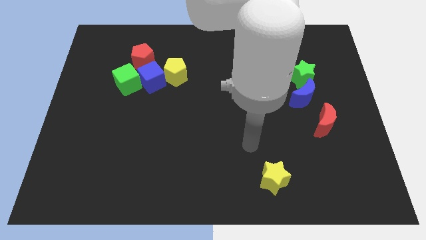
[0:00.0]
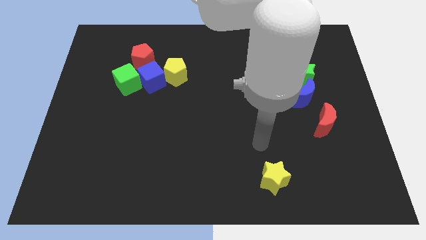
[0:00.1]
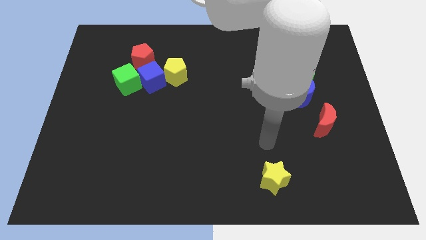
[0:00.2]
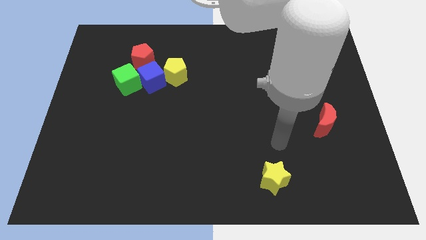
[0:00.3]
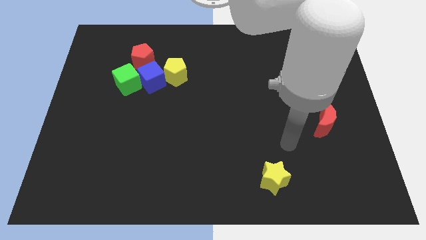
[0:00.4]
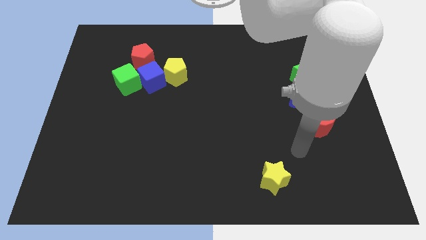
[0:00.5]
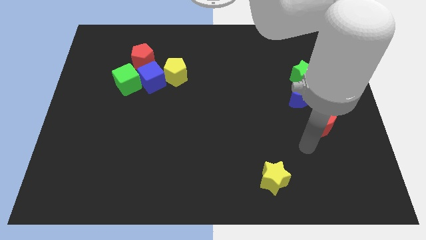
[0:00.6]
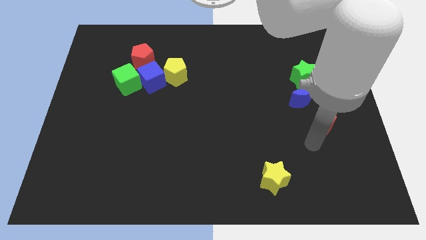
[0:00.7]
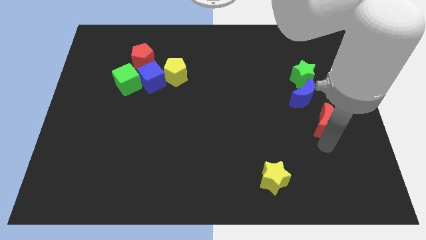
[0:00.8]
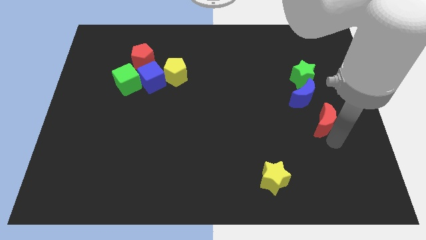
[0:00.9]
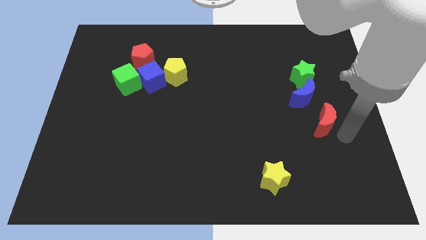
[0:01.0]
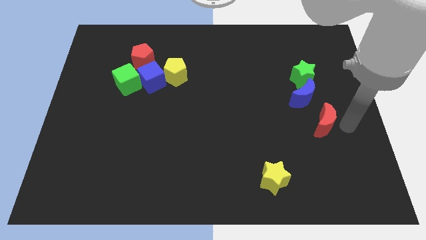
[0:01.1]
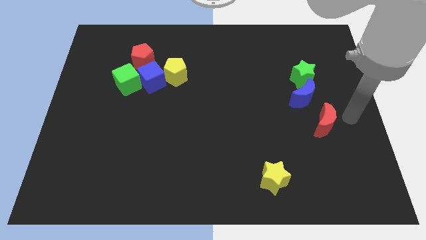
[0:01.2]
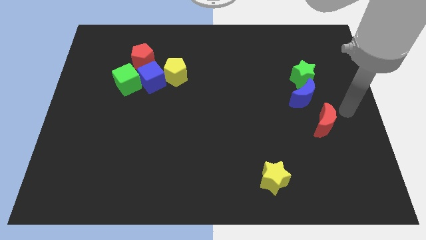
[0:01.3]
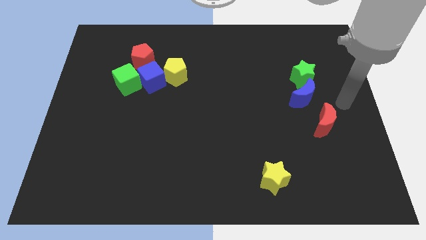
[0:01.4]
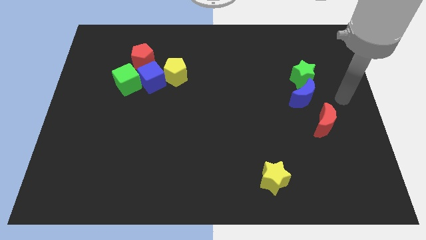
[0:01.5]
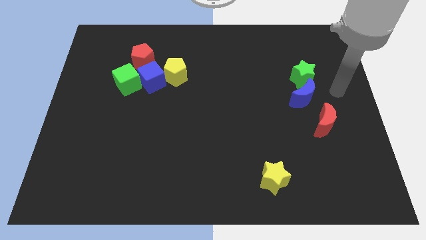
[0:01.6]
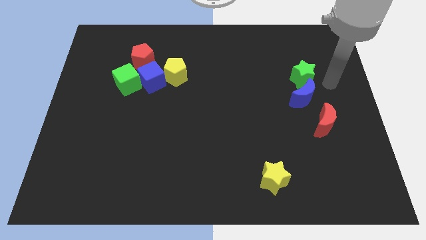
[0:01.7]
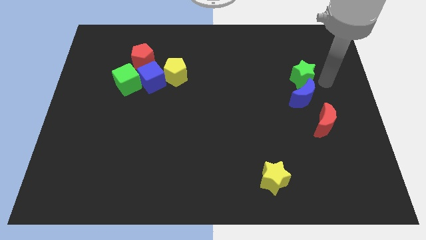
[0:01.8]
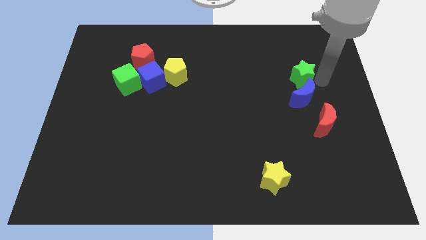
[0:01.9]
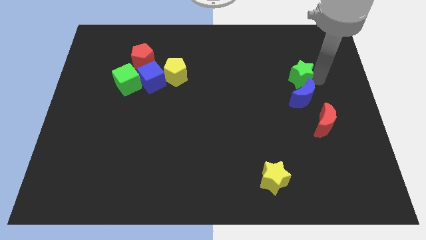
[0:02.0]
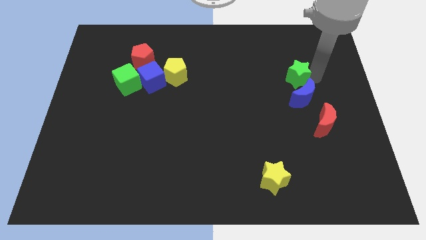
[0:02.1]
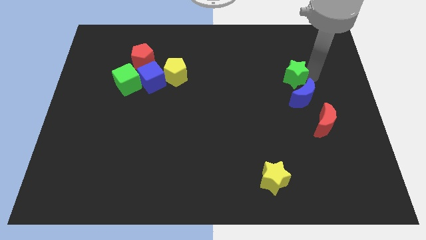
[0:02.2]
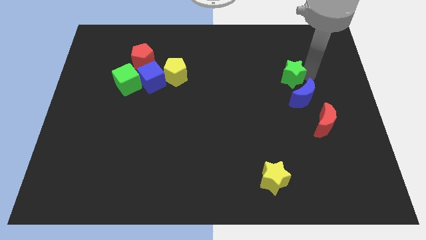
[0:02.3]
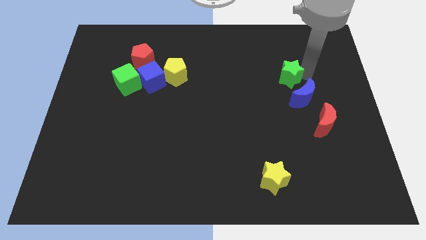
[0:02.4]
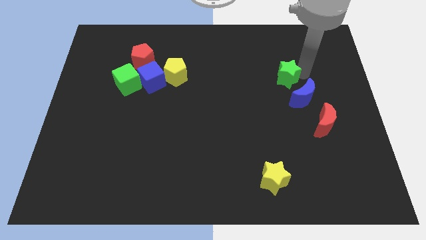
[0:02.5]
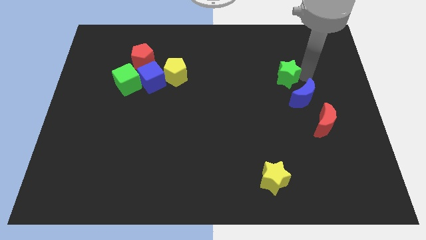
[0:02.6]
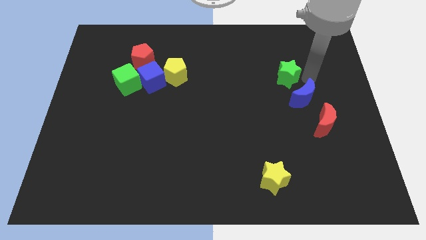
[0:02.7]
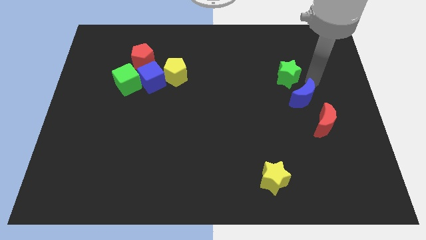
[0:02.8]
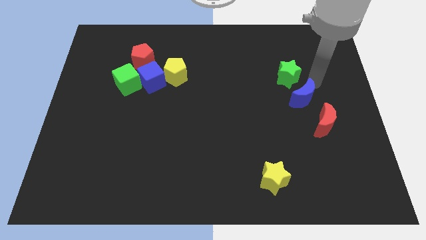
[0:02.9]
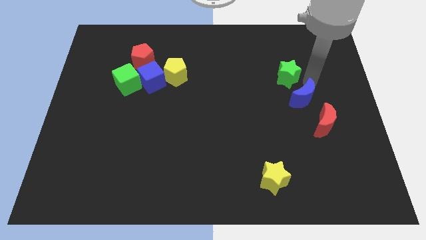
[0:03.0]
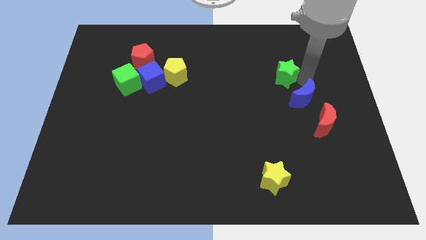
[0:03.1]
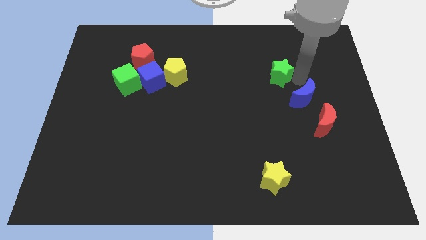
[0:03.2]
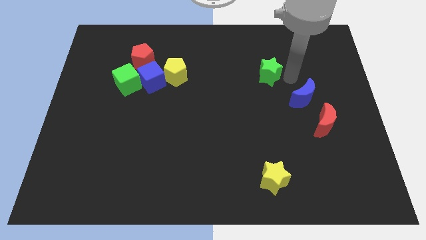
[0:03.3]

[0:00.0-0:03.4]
slightly move the green star to the left

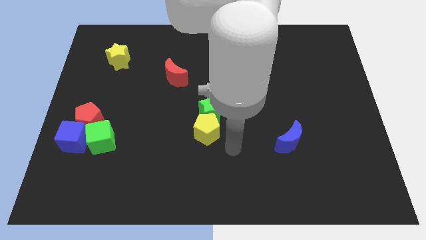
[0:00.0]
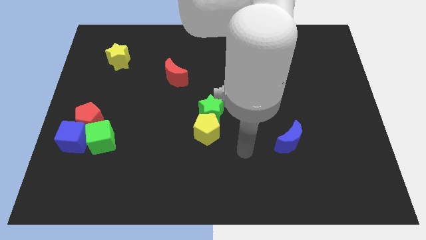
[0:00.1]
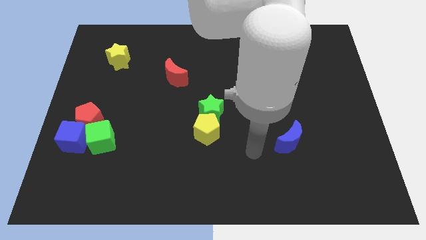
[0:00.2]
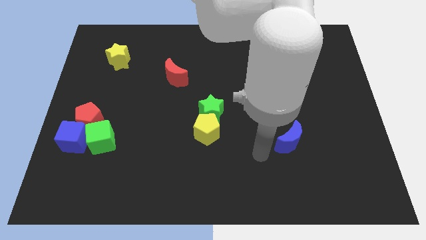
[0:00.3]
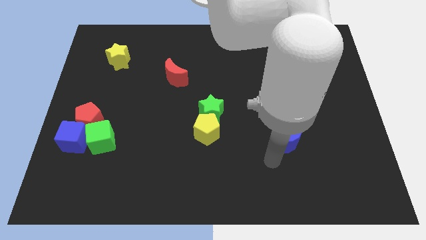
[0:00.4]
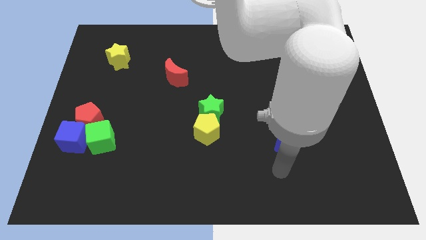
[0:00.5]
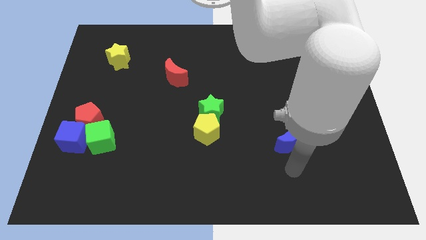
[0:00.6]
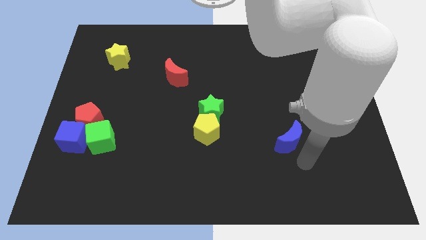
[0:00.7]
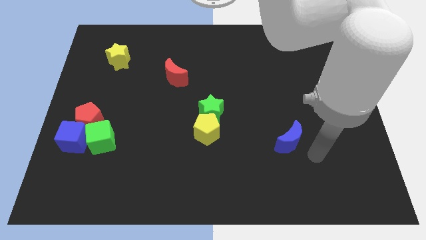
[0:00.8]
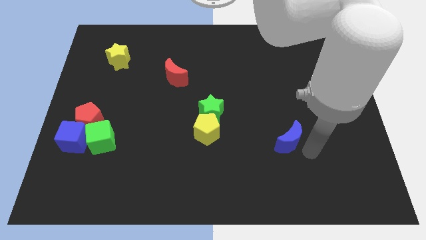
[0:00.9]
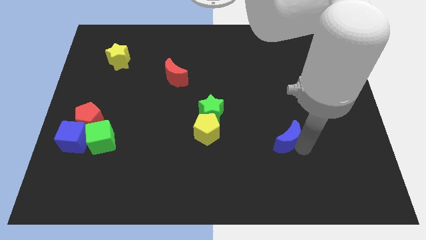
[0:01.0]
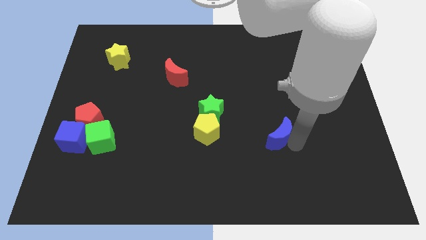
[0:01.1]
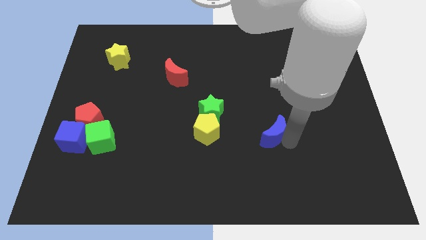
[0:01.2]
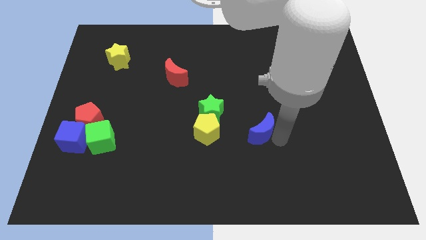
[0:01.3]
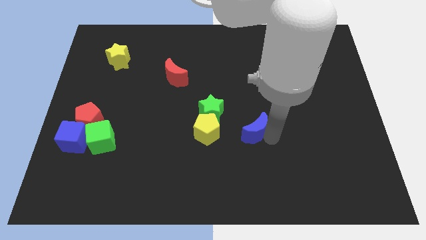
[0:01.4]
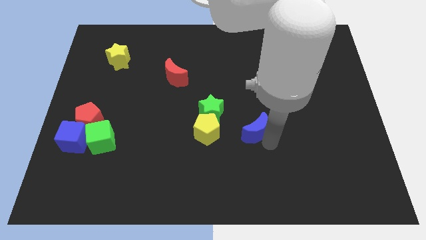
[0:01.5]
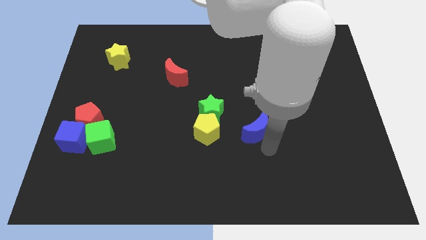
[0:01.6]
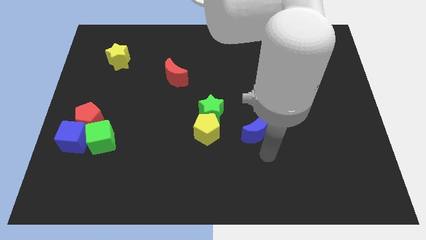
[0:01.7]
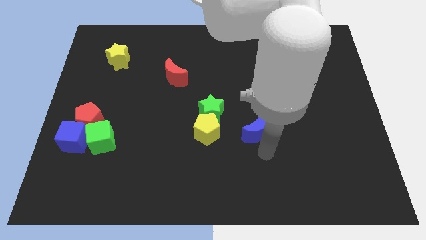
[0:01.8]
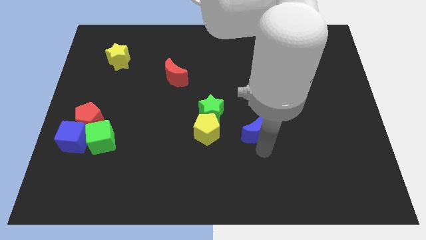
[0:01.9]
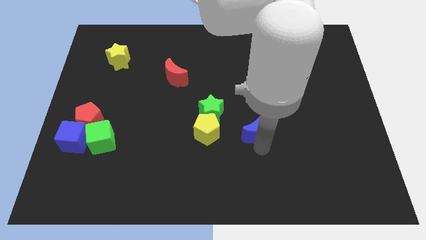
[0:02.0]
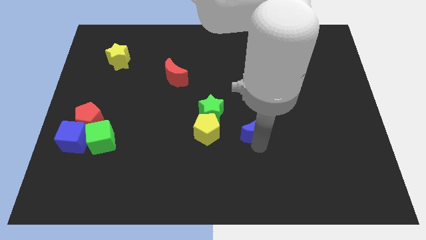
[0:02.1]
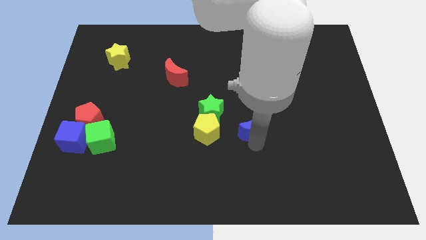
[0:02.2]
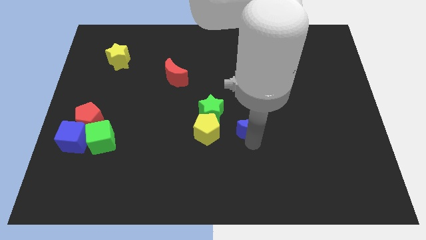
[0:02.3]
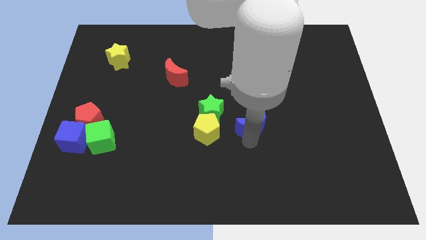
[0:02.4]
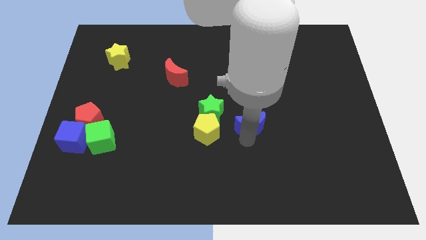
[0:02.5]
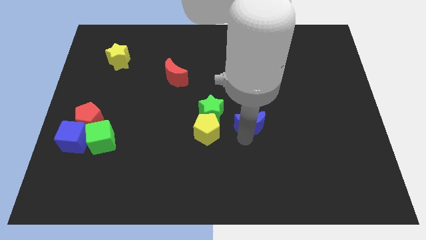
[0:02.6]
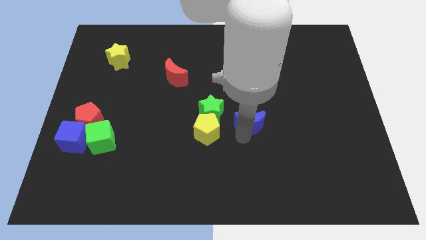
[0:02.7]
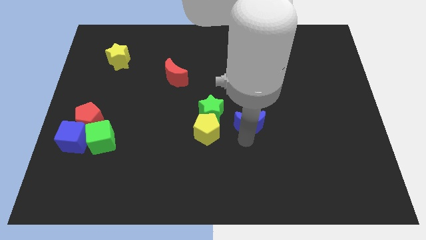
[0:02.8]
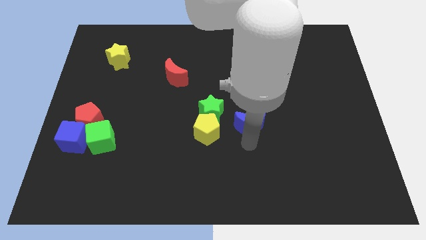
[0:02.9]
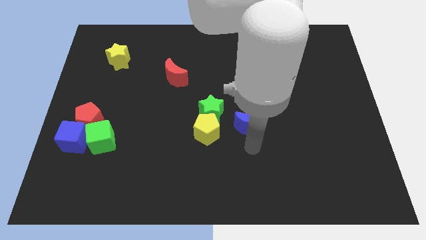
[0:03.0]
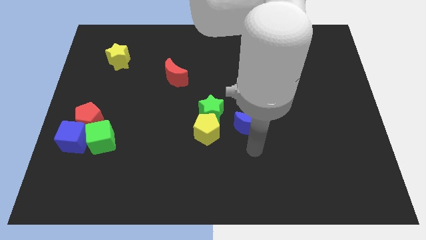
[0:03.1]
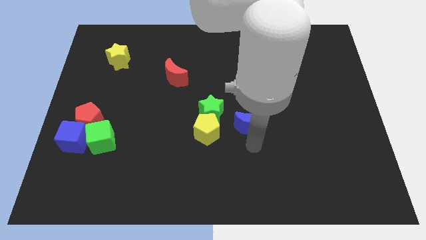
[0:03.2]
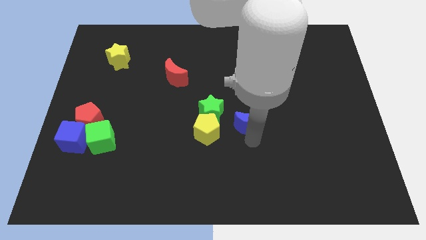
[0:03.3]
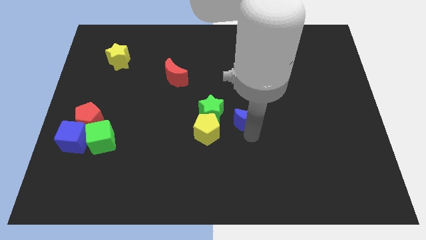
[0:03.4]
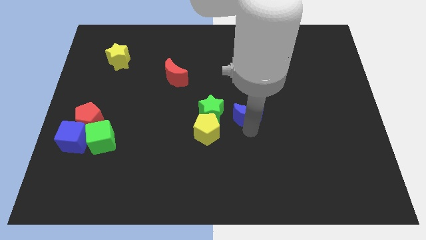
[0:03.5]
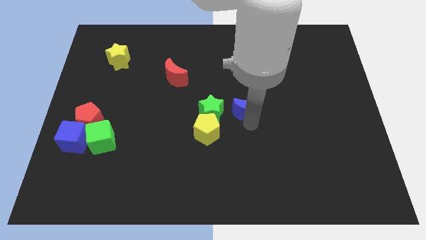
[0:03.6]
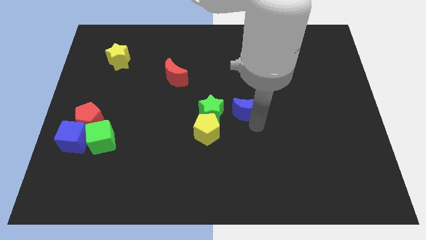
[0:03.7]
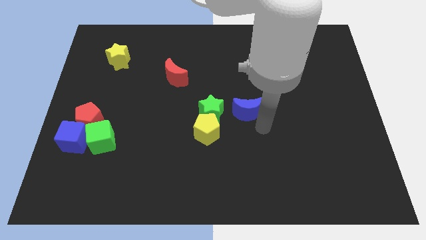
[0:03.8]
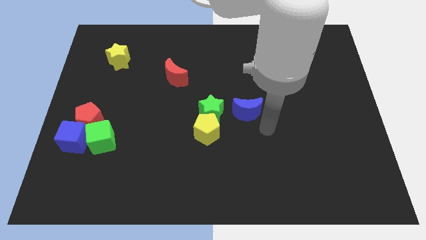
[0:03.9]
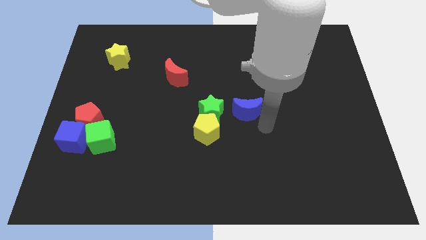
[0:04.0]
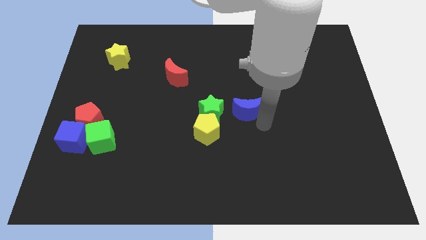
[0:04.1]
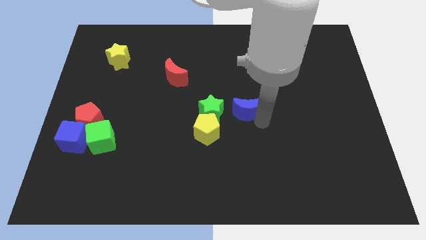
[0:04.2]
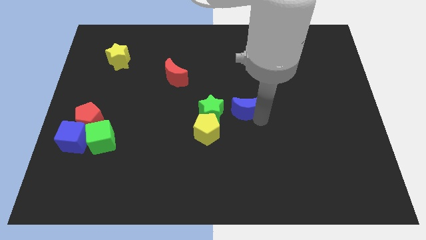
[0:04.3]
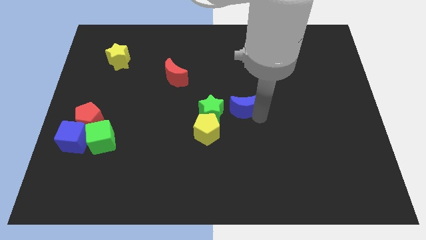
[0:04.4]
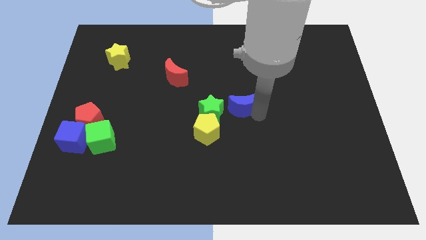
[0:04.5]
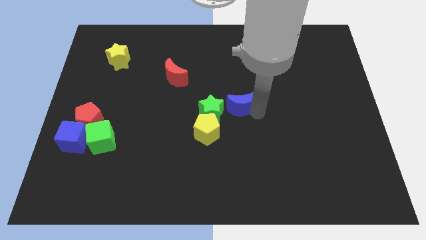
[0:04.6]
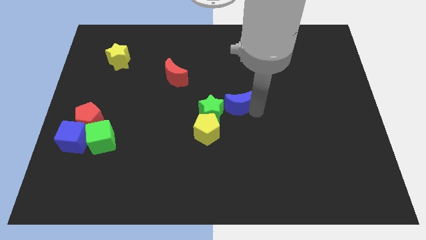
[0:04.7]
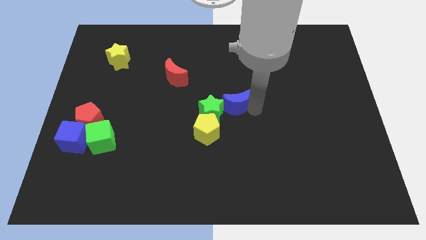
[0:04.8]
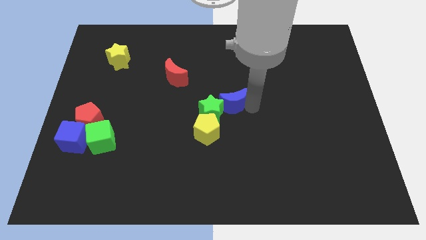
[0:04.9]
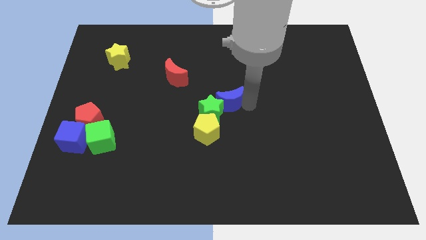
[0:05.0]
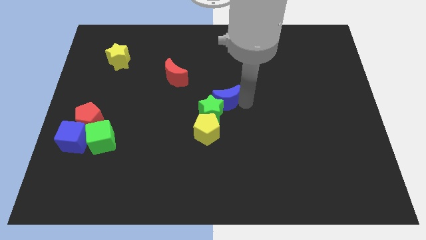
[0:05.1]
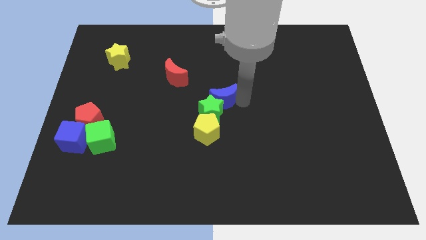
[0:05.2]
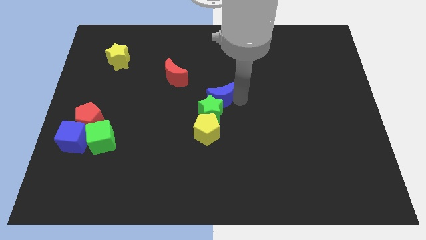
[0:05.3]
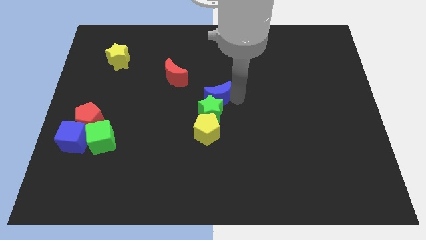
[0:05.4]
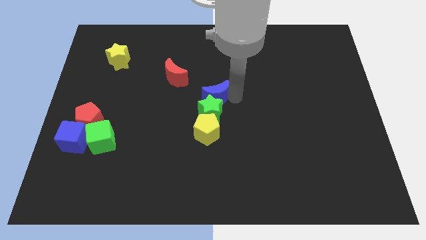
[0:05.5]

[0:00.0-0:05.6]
move the blue moon up and left diagonally
